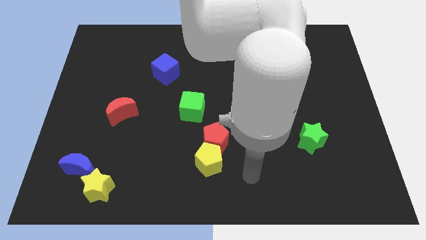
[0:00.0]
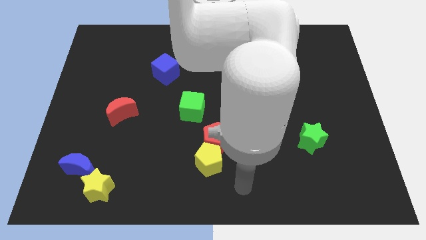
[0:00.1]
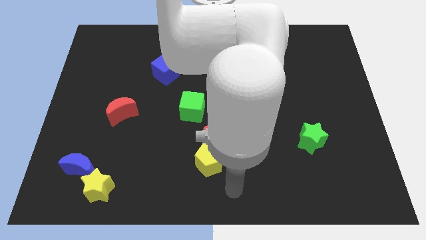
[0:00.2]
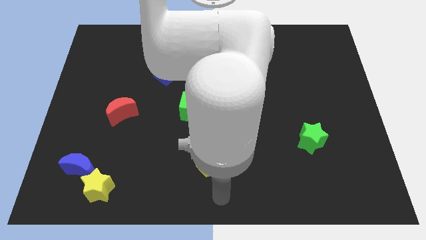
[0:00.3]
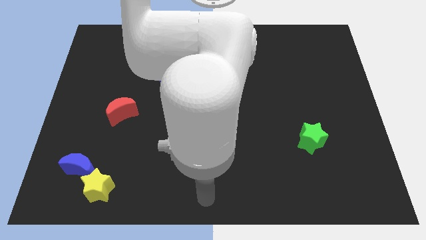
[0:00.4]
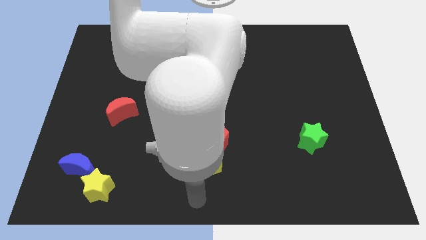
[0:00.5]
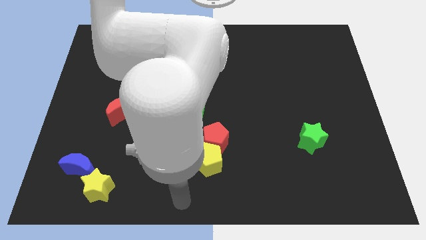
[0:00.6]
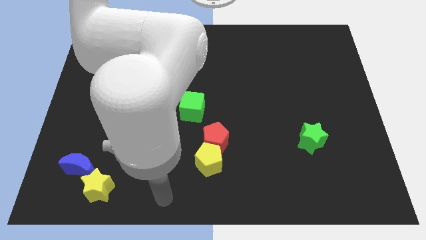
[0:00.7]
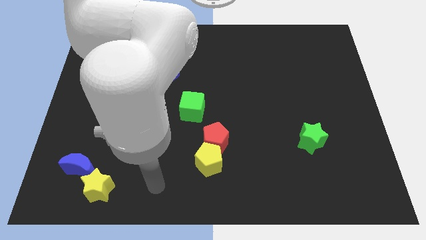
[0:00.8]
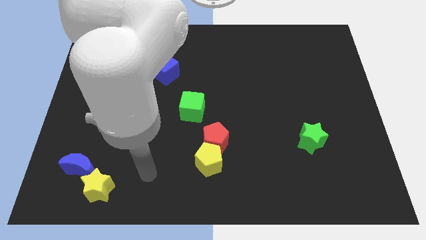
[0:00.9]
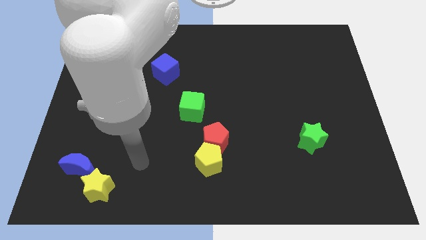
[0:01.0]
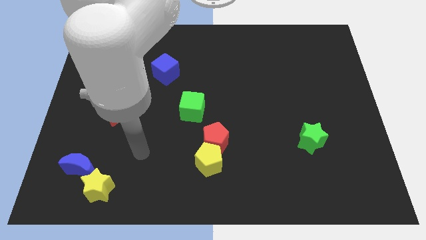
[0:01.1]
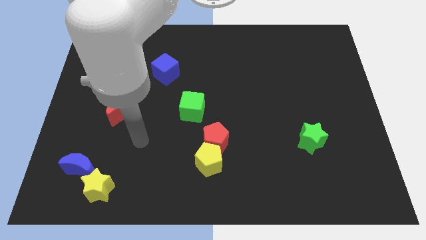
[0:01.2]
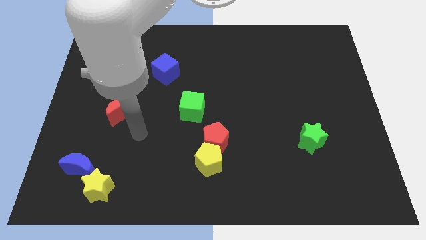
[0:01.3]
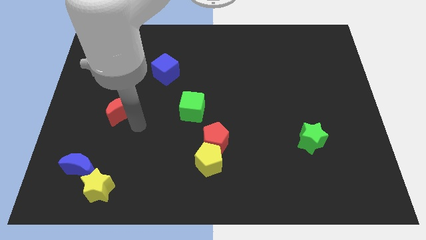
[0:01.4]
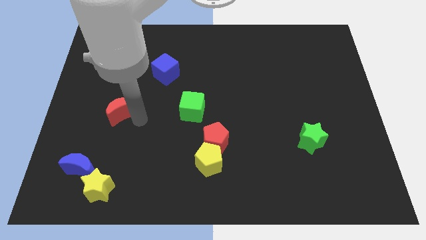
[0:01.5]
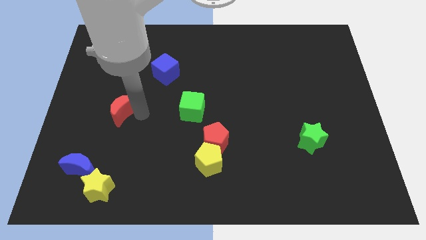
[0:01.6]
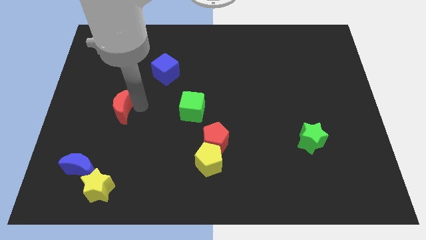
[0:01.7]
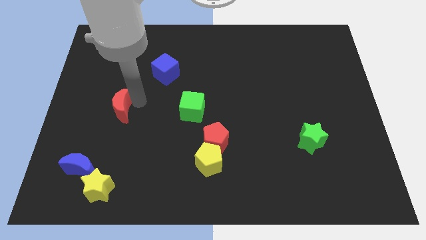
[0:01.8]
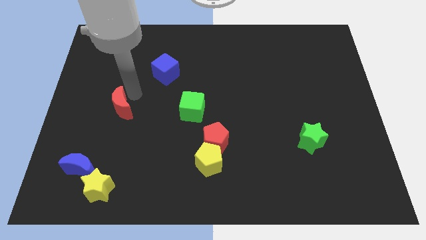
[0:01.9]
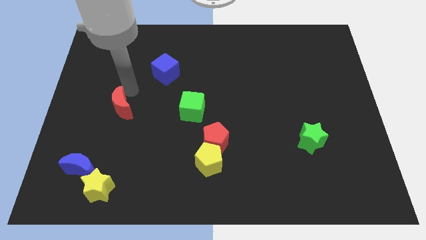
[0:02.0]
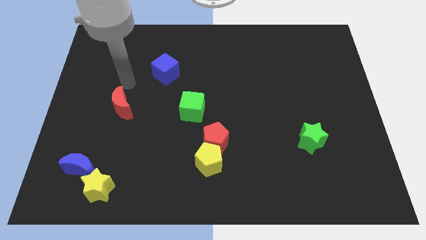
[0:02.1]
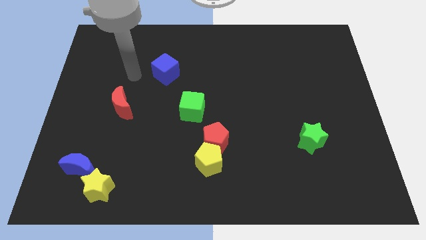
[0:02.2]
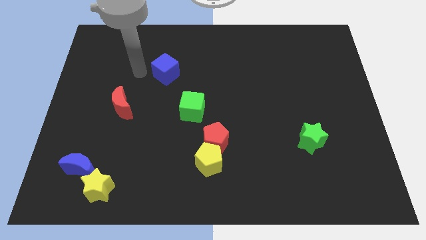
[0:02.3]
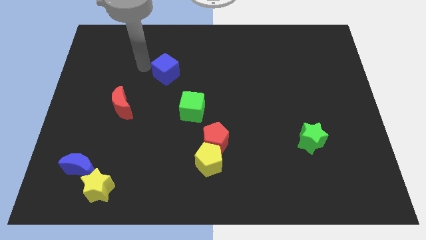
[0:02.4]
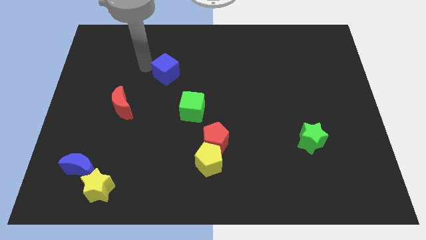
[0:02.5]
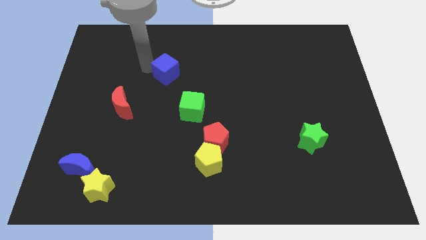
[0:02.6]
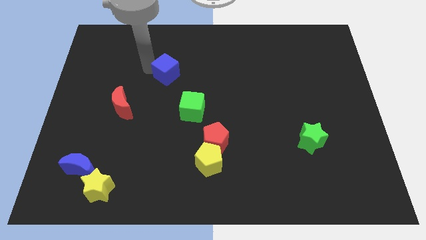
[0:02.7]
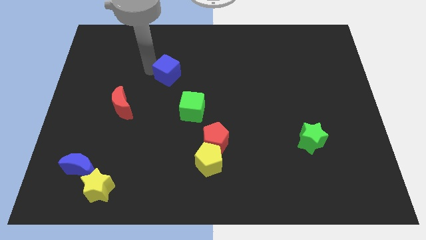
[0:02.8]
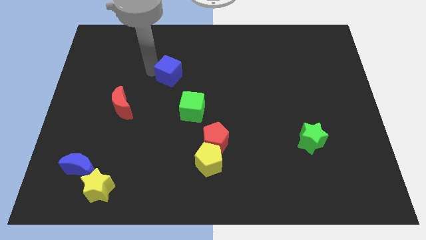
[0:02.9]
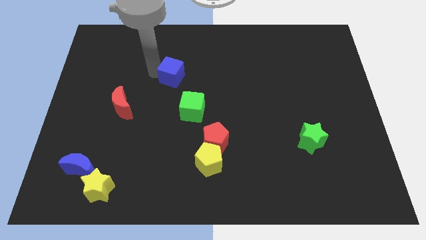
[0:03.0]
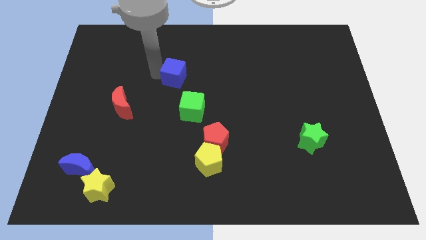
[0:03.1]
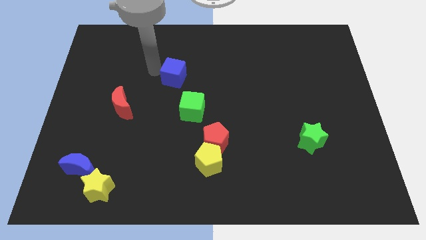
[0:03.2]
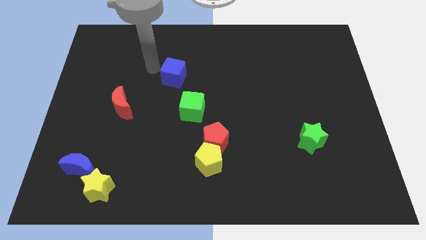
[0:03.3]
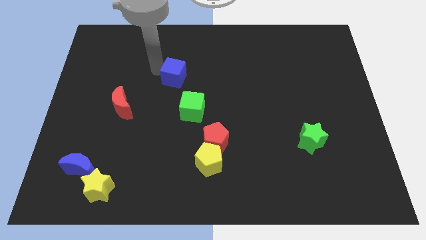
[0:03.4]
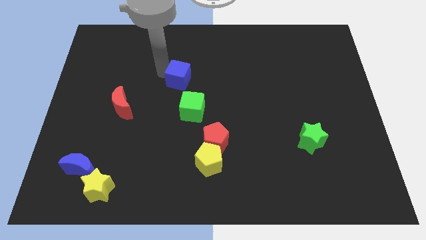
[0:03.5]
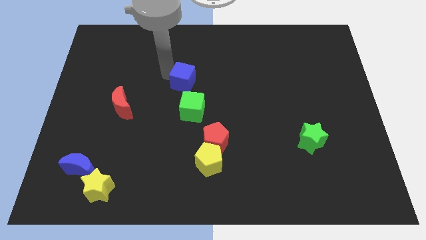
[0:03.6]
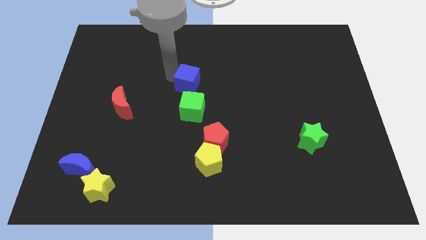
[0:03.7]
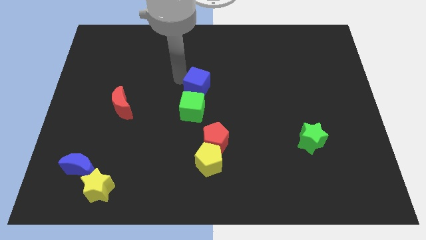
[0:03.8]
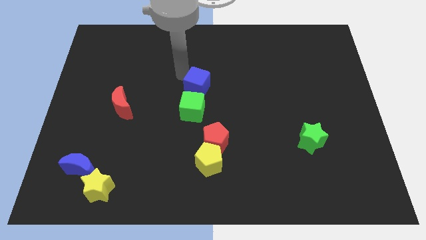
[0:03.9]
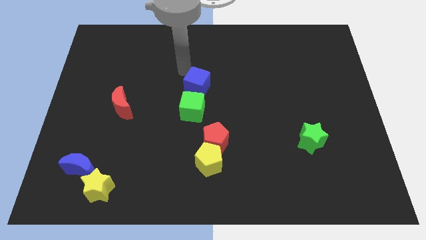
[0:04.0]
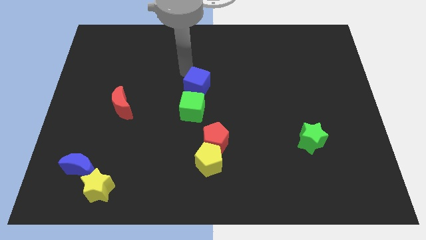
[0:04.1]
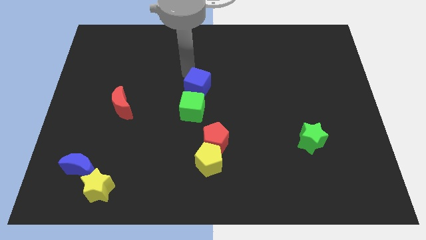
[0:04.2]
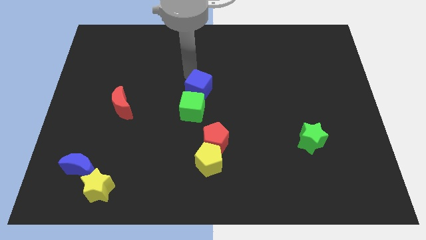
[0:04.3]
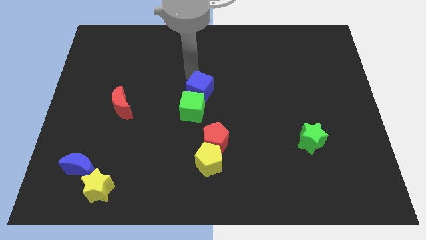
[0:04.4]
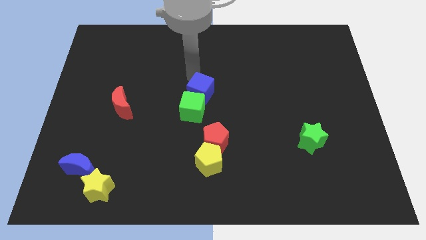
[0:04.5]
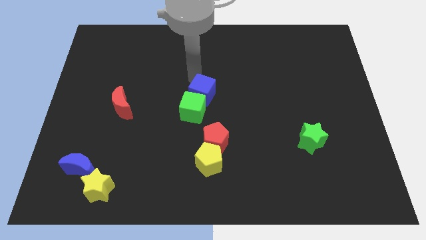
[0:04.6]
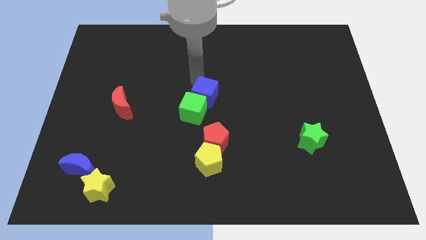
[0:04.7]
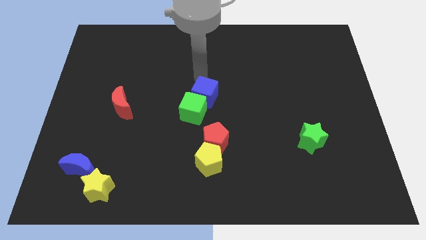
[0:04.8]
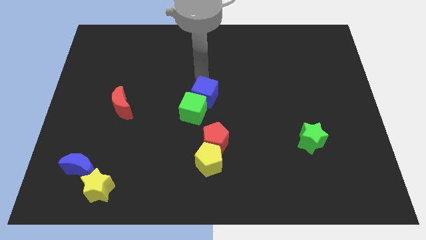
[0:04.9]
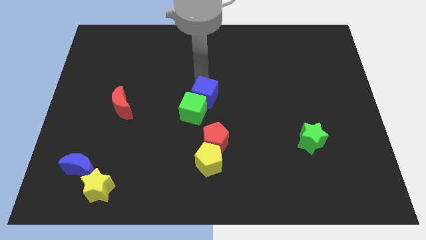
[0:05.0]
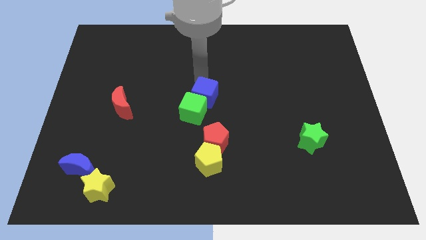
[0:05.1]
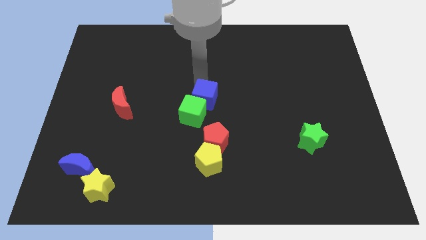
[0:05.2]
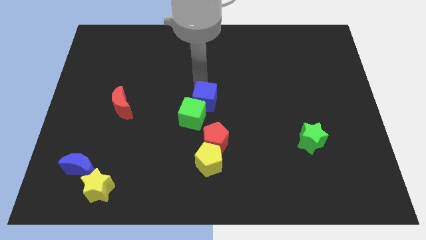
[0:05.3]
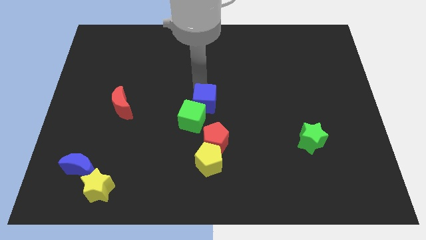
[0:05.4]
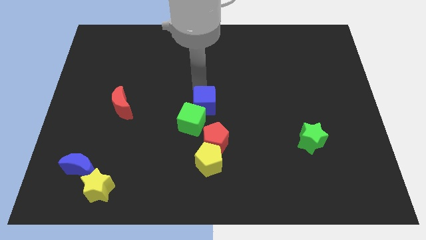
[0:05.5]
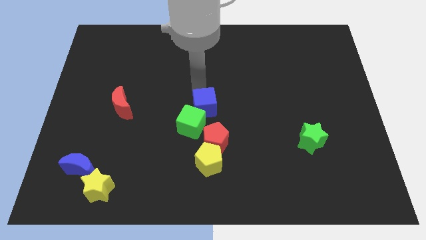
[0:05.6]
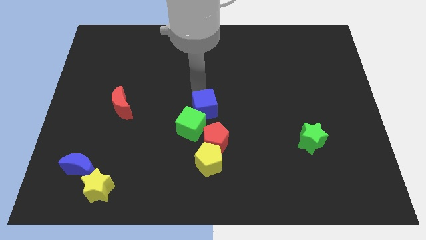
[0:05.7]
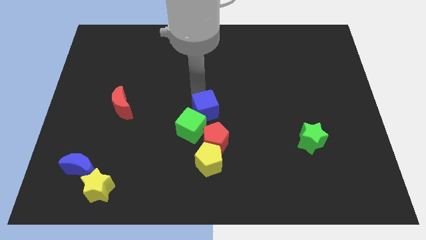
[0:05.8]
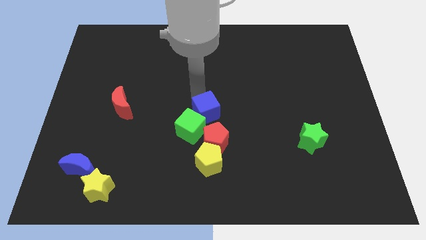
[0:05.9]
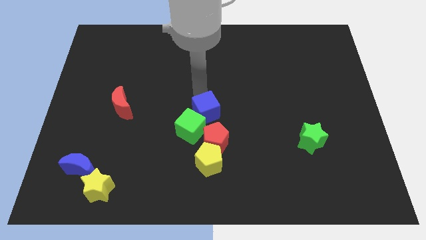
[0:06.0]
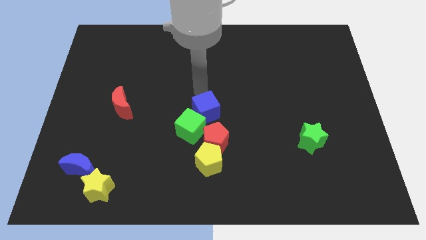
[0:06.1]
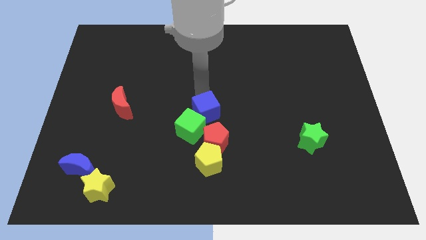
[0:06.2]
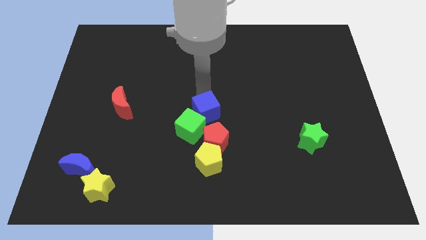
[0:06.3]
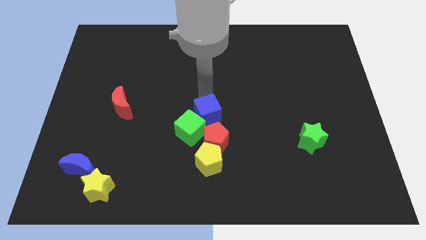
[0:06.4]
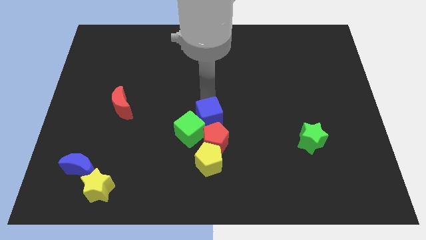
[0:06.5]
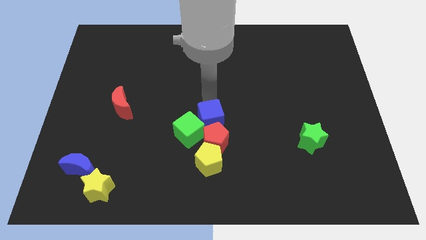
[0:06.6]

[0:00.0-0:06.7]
push the blue cube towards the red pentagon
